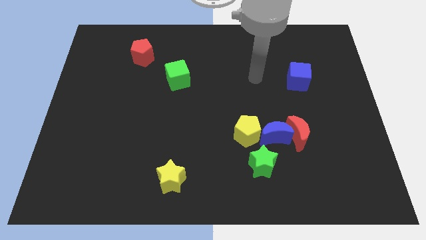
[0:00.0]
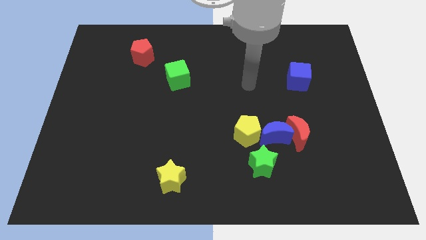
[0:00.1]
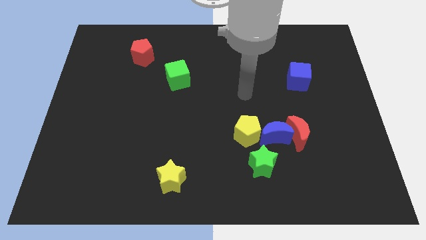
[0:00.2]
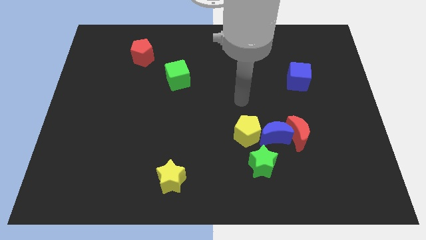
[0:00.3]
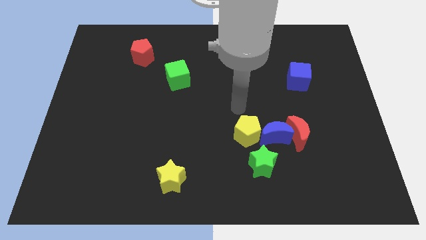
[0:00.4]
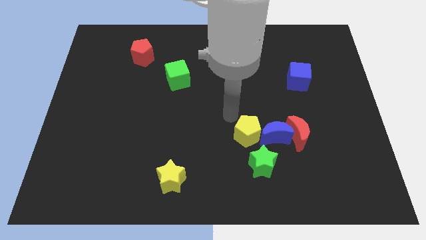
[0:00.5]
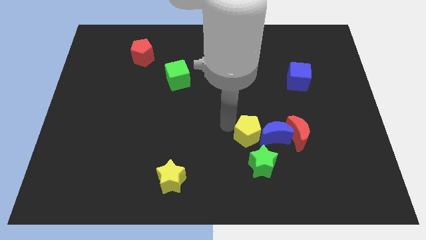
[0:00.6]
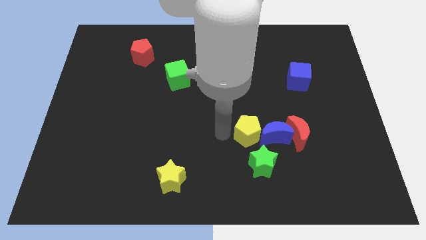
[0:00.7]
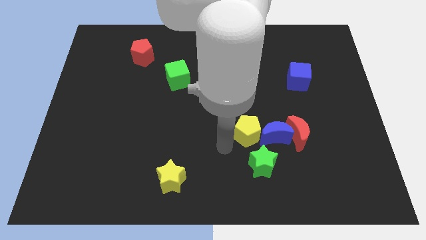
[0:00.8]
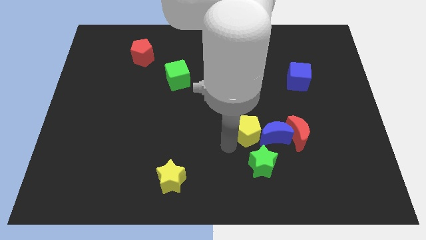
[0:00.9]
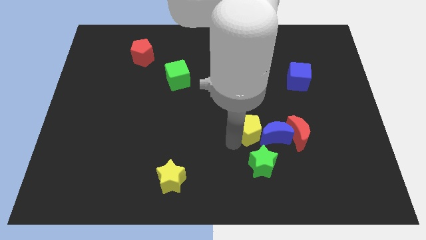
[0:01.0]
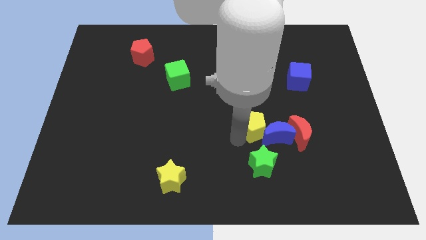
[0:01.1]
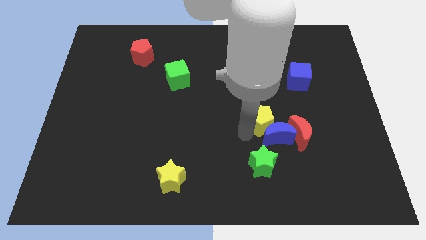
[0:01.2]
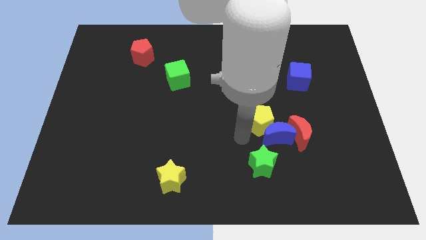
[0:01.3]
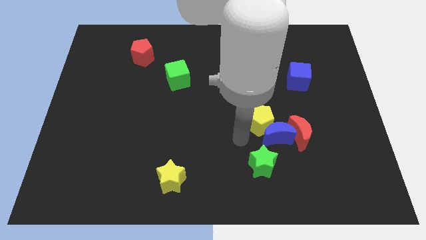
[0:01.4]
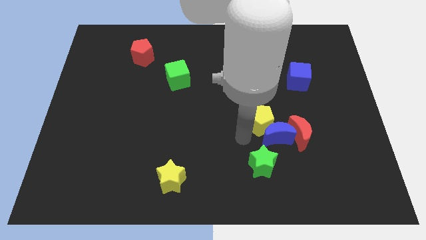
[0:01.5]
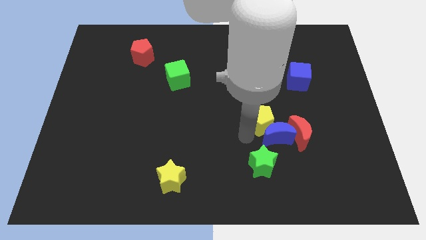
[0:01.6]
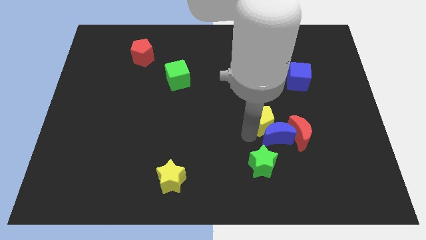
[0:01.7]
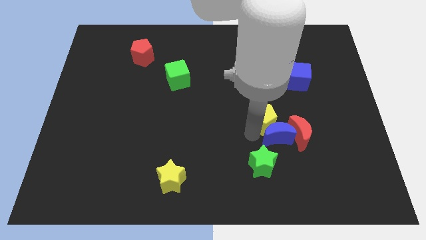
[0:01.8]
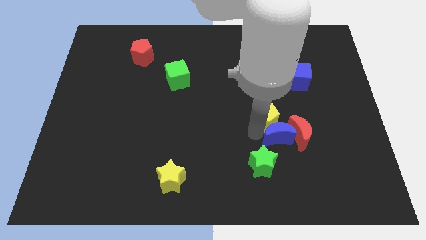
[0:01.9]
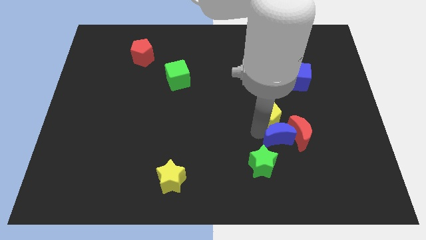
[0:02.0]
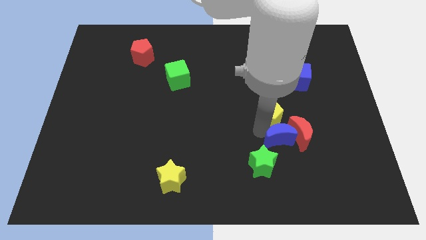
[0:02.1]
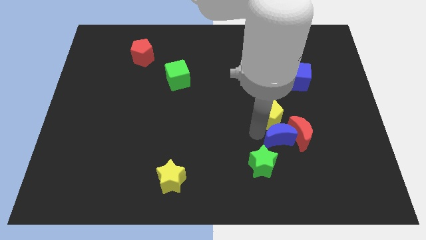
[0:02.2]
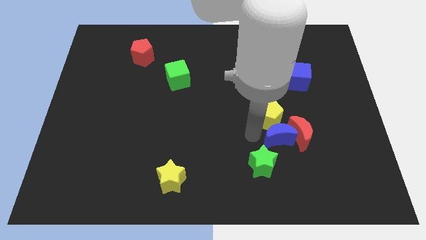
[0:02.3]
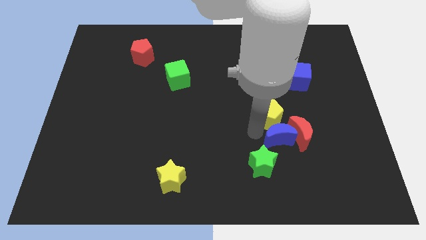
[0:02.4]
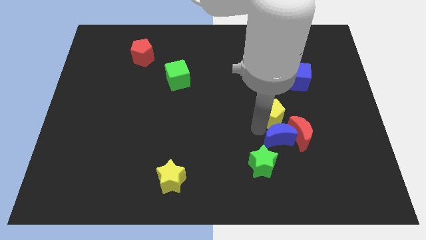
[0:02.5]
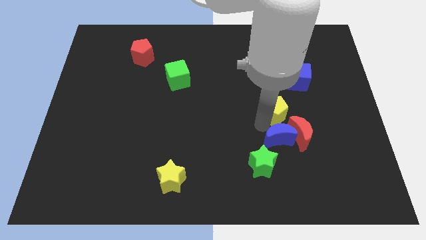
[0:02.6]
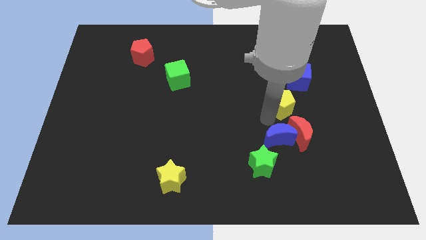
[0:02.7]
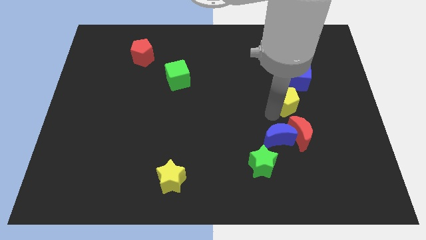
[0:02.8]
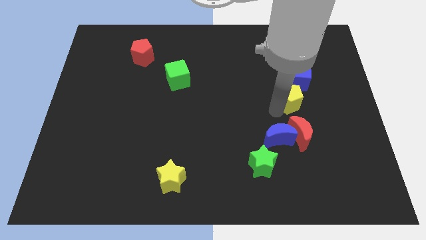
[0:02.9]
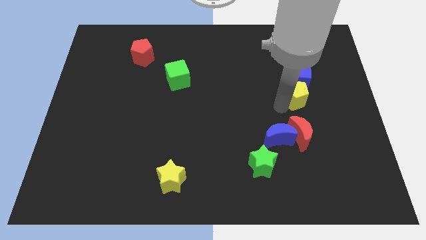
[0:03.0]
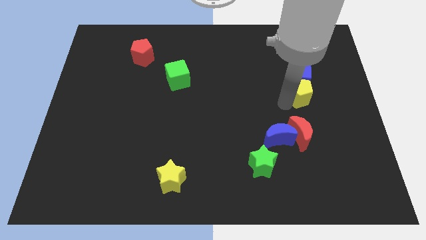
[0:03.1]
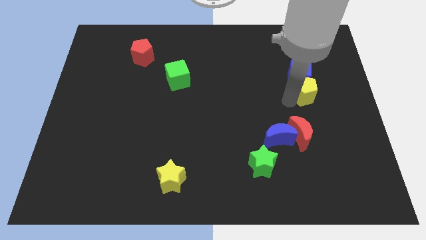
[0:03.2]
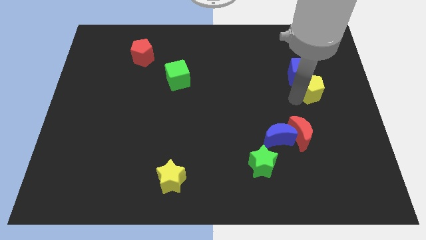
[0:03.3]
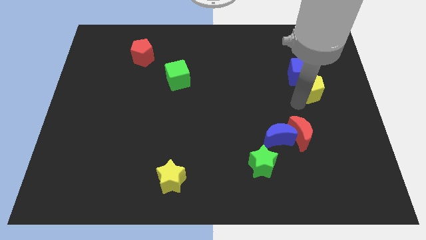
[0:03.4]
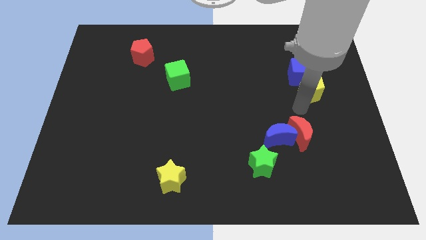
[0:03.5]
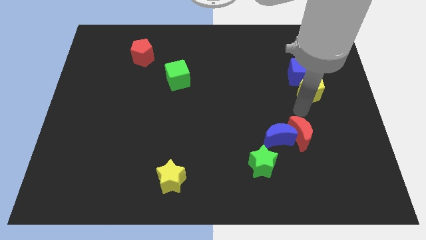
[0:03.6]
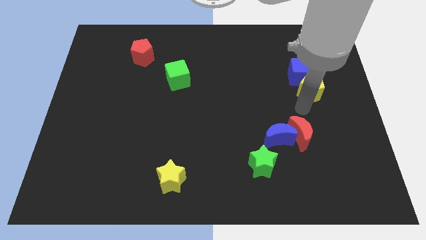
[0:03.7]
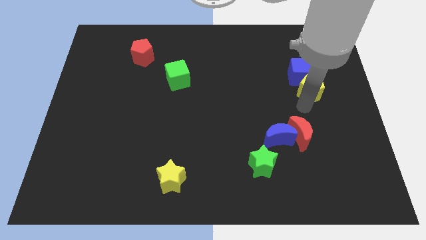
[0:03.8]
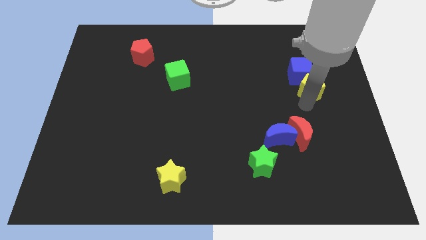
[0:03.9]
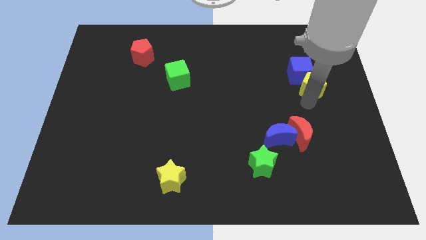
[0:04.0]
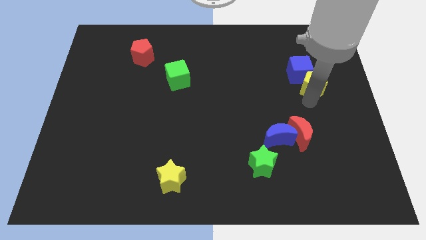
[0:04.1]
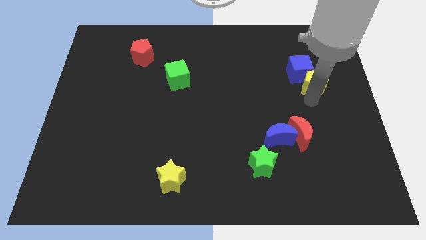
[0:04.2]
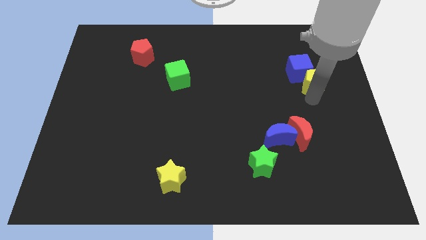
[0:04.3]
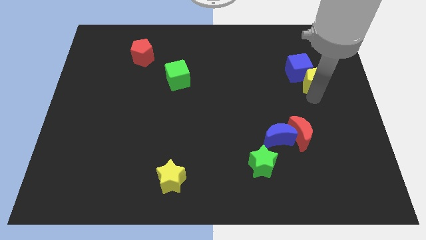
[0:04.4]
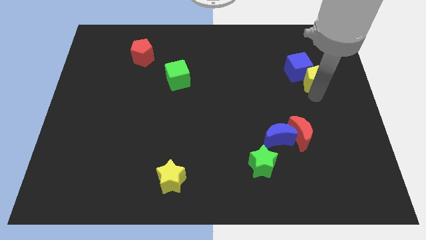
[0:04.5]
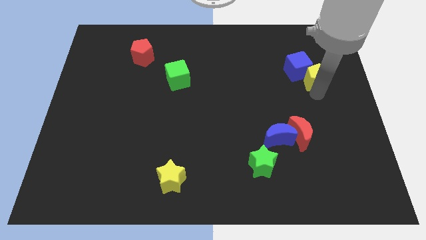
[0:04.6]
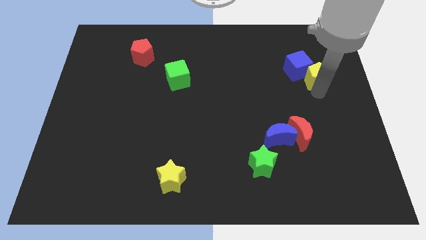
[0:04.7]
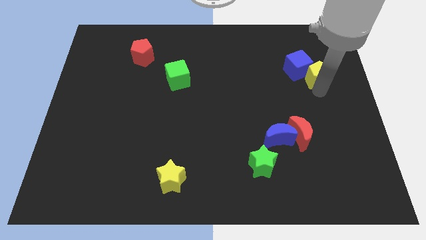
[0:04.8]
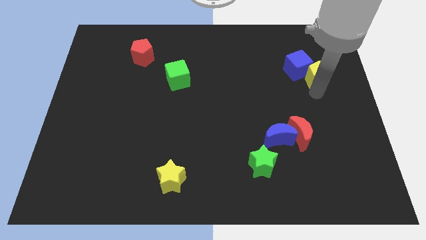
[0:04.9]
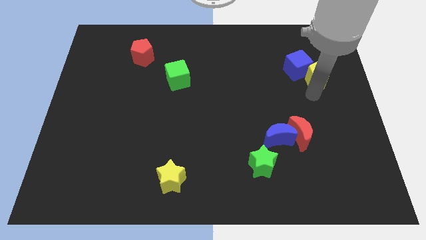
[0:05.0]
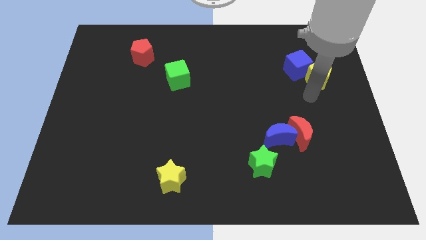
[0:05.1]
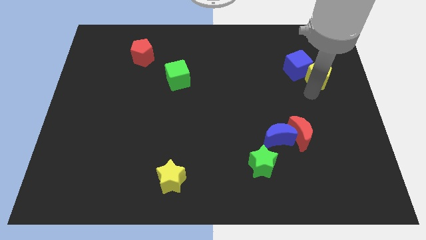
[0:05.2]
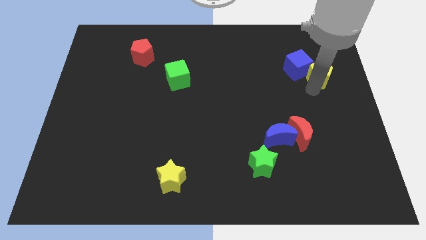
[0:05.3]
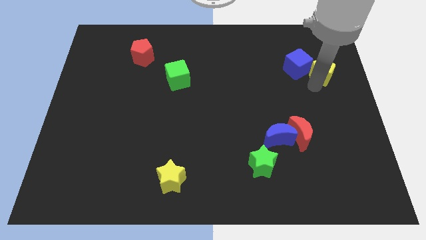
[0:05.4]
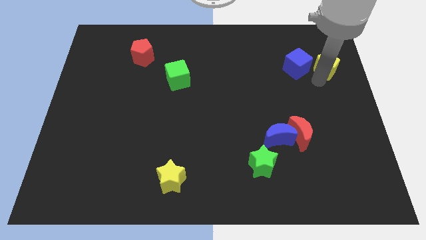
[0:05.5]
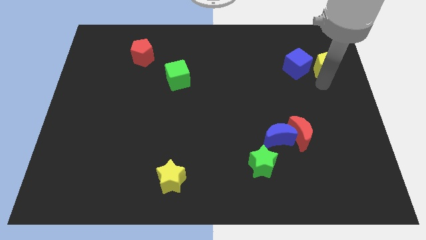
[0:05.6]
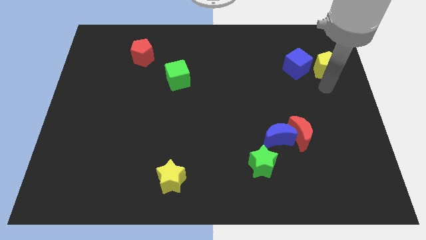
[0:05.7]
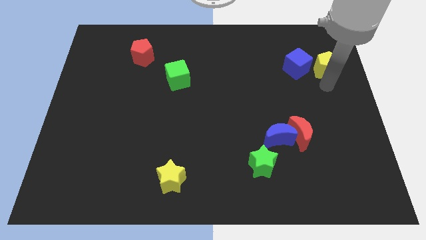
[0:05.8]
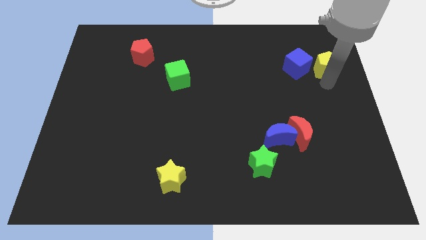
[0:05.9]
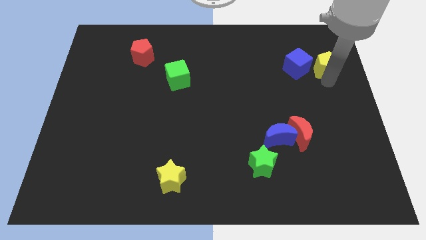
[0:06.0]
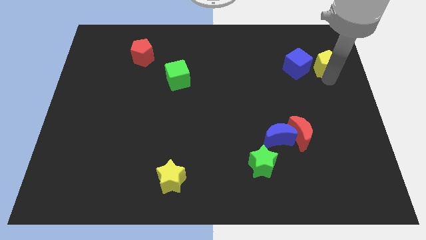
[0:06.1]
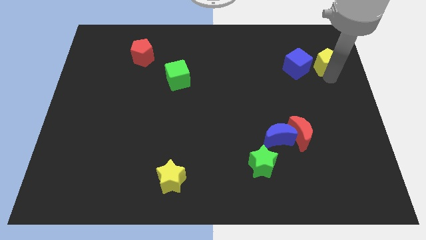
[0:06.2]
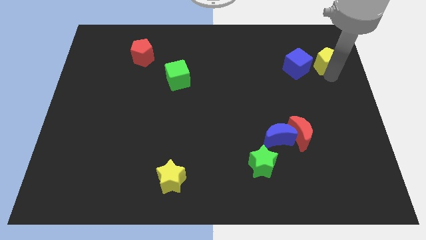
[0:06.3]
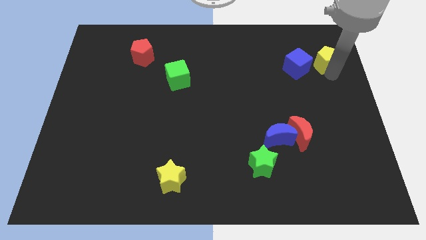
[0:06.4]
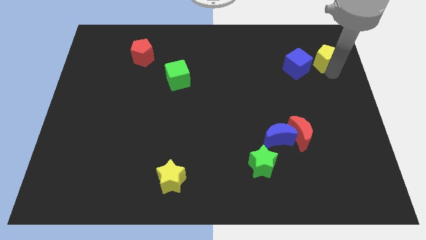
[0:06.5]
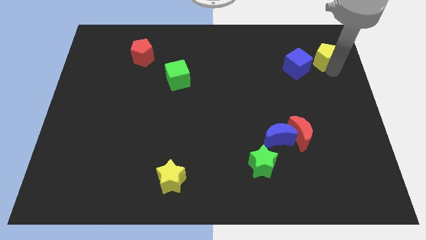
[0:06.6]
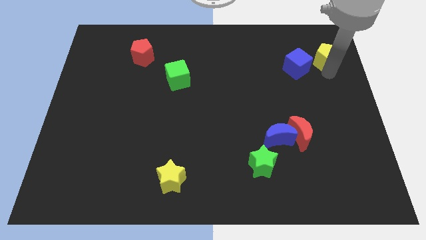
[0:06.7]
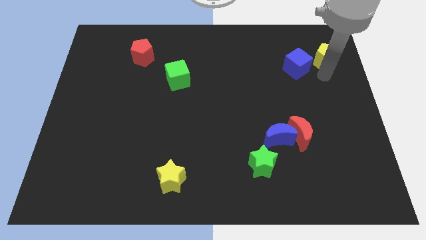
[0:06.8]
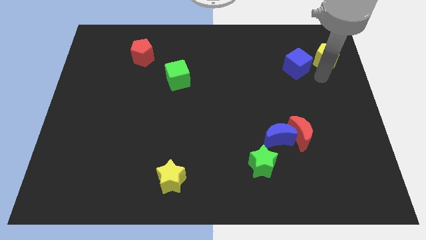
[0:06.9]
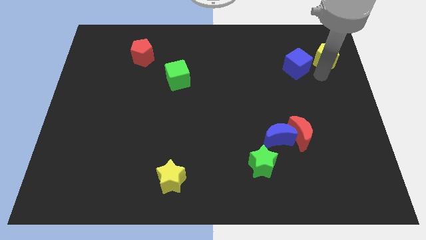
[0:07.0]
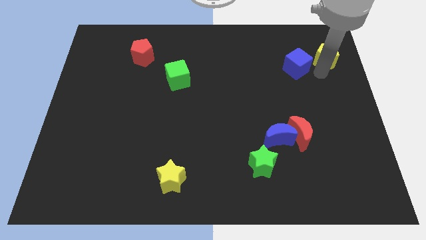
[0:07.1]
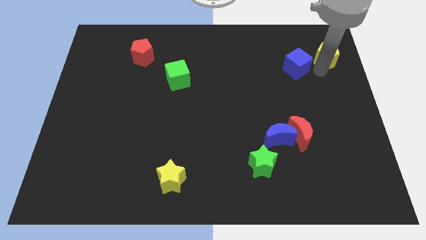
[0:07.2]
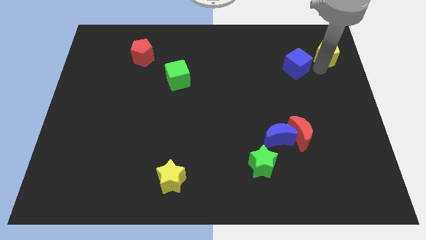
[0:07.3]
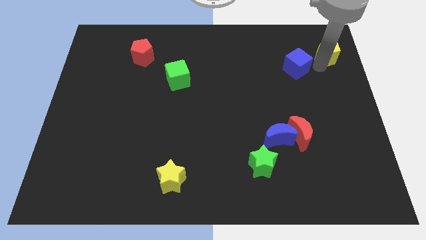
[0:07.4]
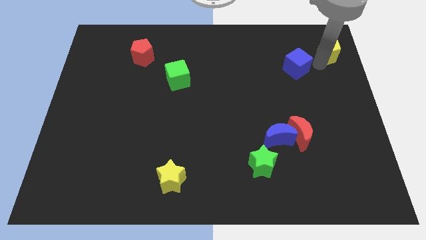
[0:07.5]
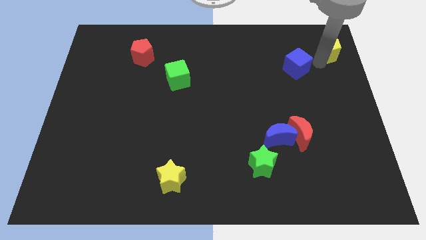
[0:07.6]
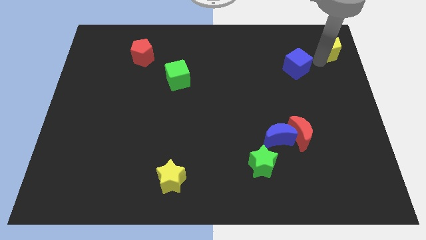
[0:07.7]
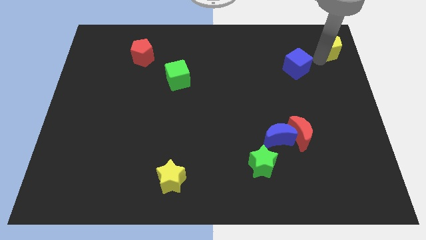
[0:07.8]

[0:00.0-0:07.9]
put the yellow pentagon to the top right of the board
